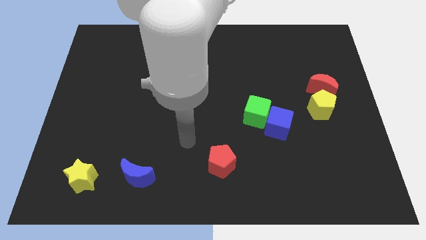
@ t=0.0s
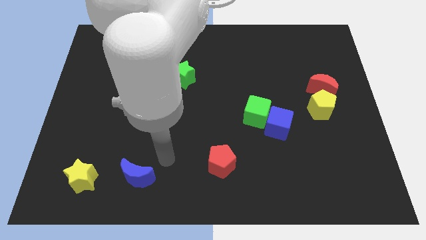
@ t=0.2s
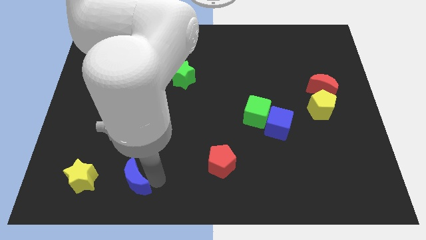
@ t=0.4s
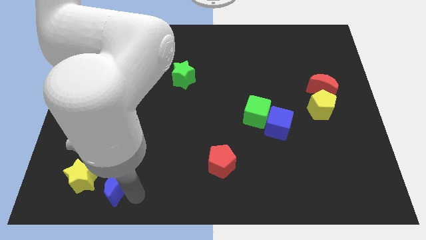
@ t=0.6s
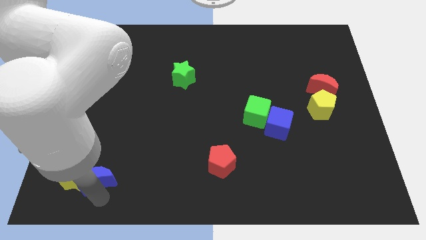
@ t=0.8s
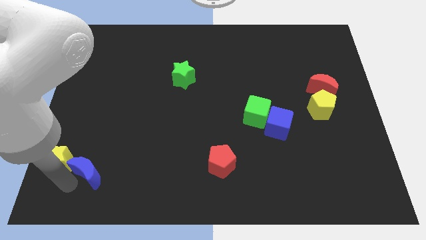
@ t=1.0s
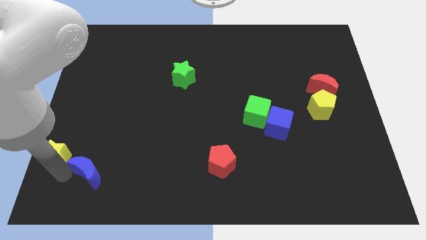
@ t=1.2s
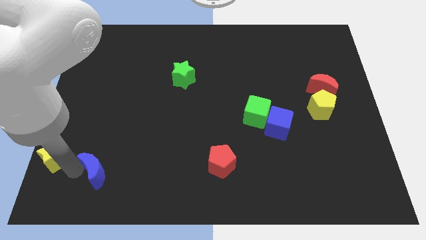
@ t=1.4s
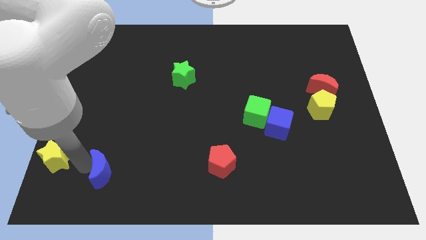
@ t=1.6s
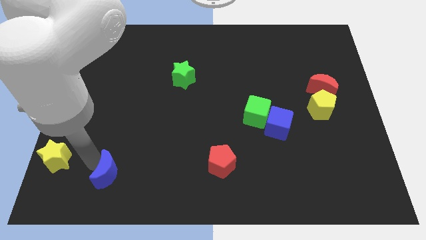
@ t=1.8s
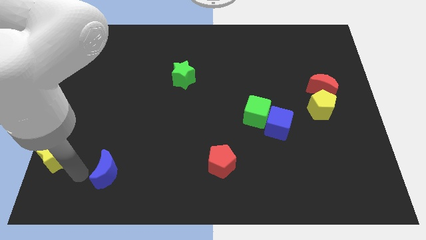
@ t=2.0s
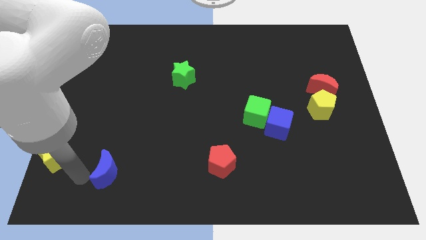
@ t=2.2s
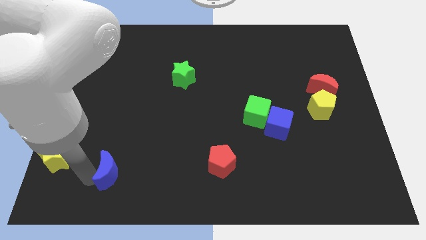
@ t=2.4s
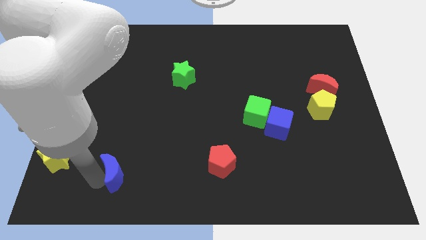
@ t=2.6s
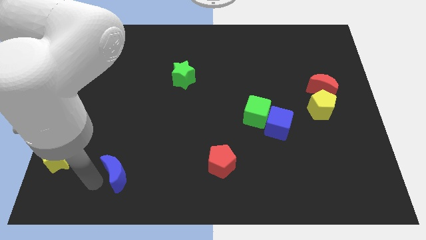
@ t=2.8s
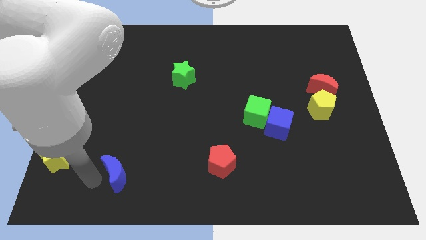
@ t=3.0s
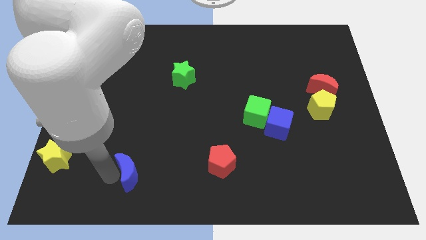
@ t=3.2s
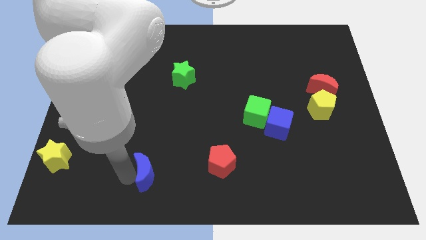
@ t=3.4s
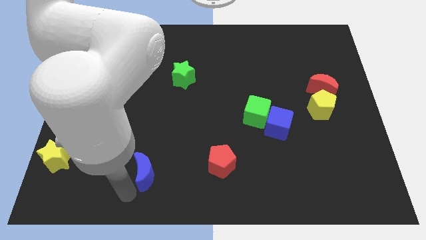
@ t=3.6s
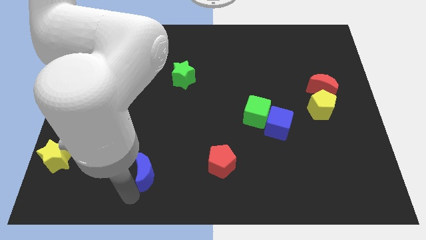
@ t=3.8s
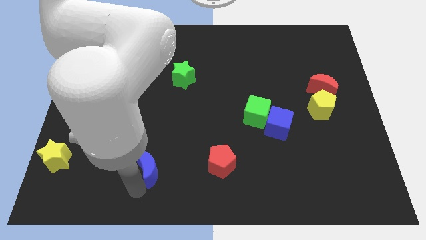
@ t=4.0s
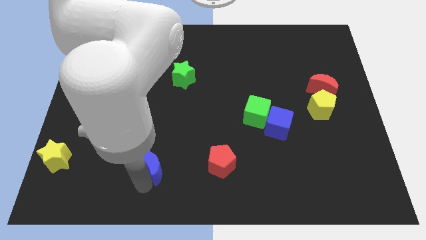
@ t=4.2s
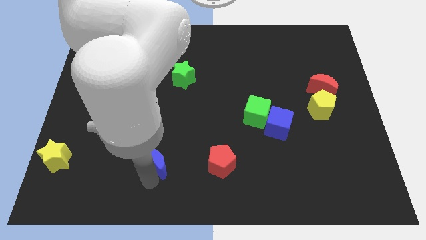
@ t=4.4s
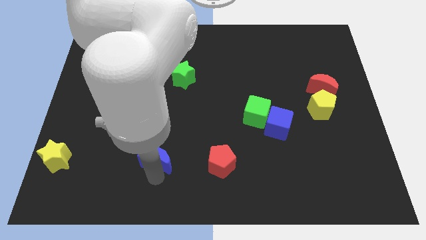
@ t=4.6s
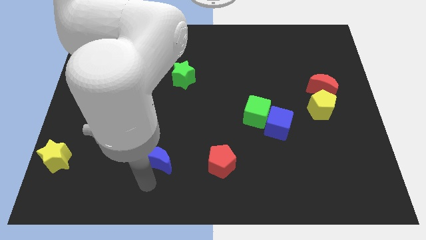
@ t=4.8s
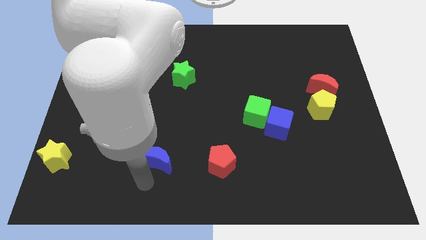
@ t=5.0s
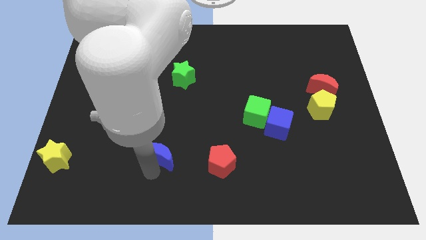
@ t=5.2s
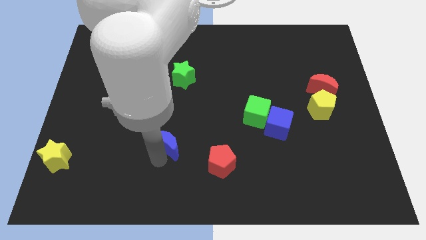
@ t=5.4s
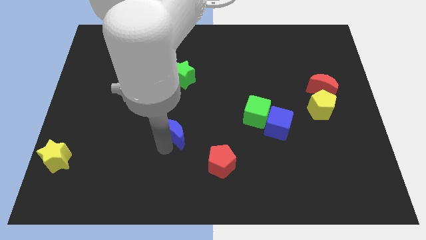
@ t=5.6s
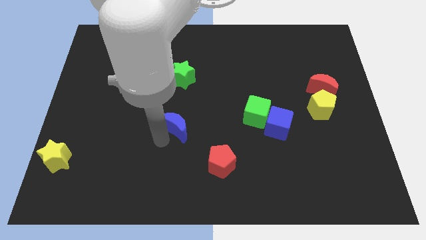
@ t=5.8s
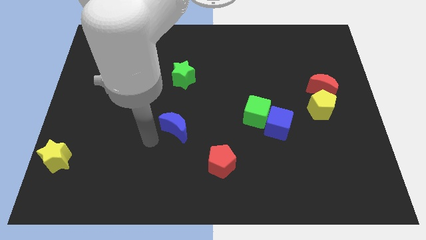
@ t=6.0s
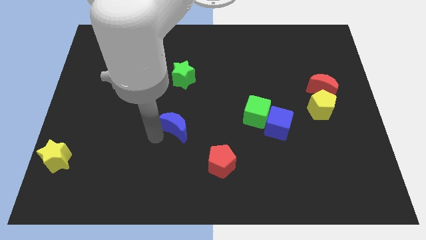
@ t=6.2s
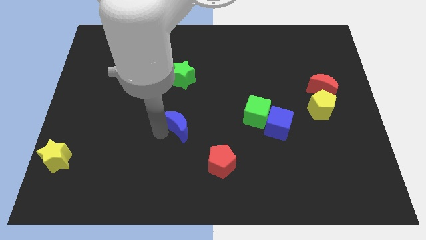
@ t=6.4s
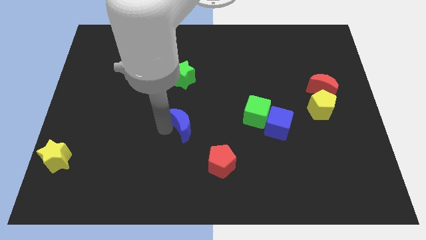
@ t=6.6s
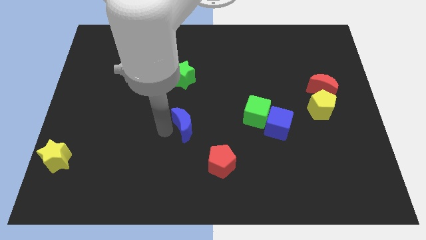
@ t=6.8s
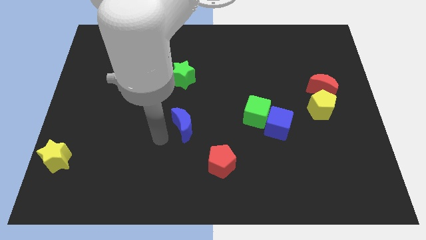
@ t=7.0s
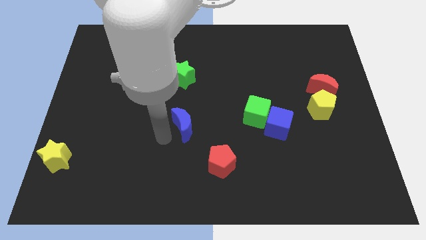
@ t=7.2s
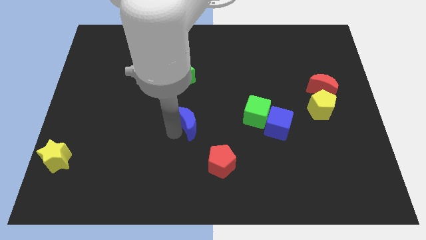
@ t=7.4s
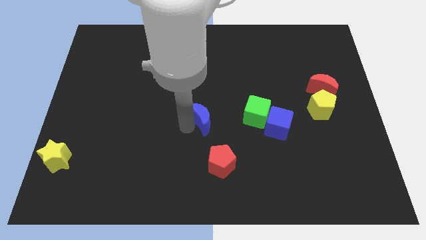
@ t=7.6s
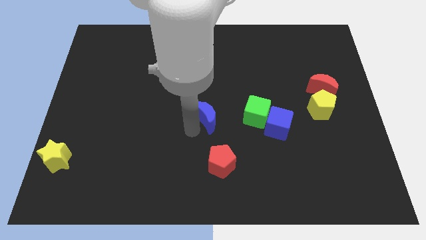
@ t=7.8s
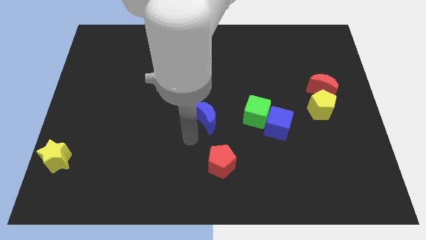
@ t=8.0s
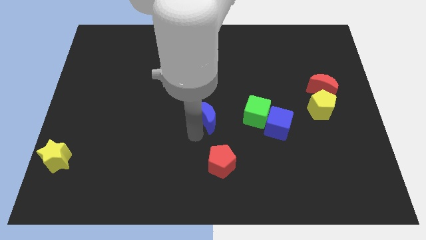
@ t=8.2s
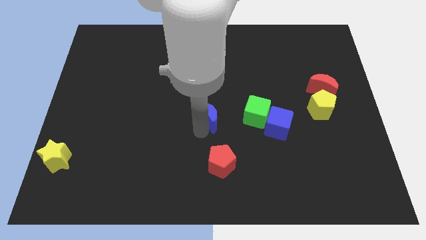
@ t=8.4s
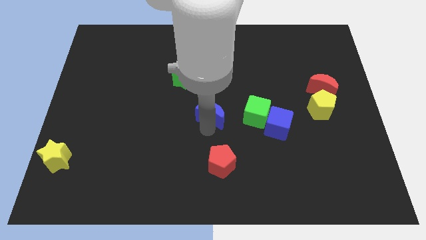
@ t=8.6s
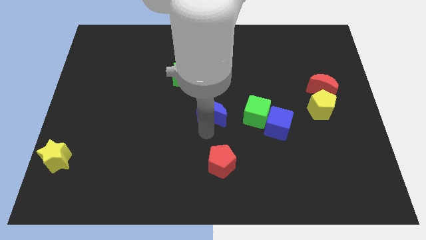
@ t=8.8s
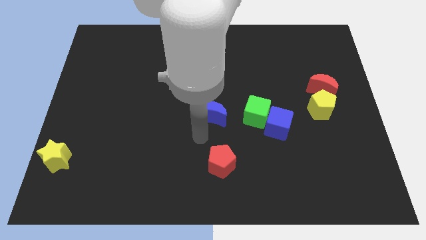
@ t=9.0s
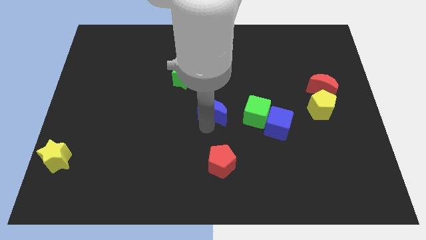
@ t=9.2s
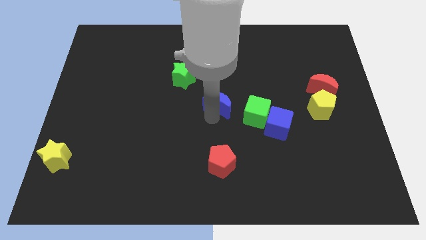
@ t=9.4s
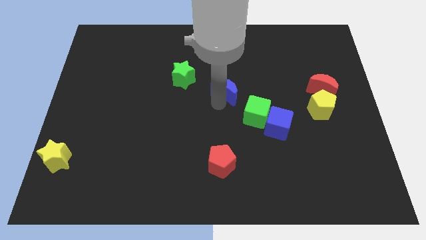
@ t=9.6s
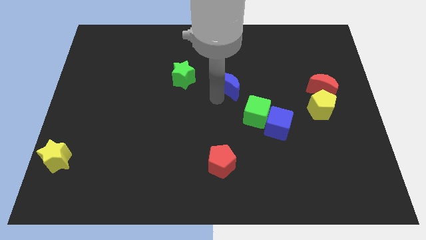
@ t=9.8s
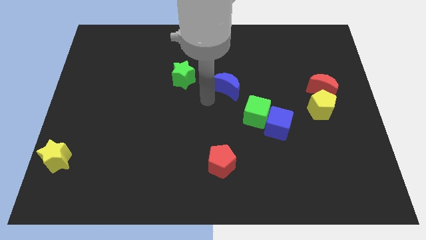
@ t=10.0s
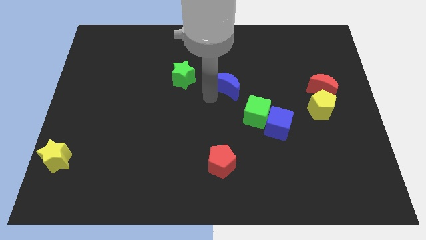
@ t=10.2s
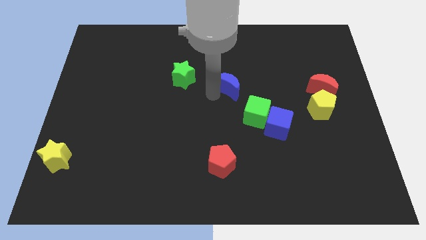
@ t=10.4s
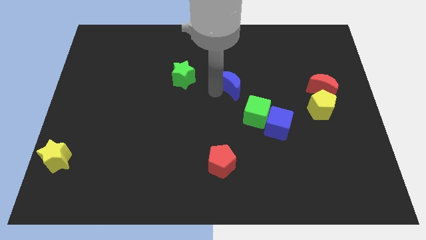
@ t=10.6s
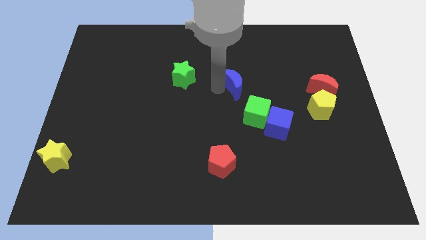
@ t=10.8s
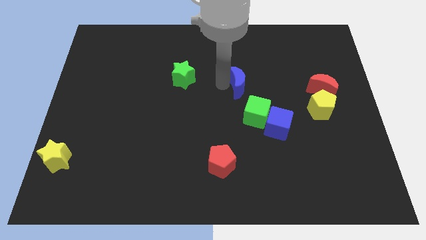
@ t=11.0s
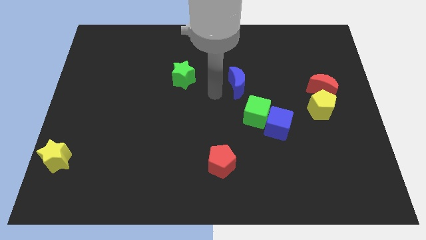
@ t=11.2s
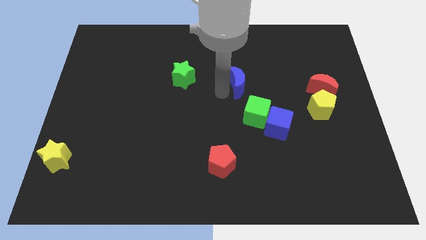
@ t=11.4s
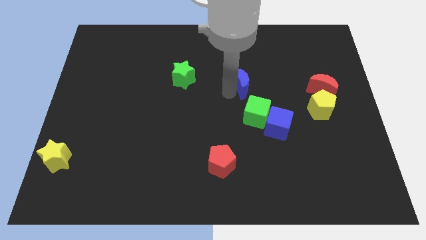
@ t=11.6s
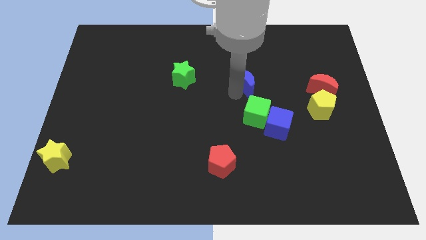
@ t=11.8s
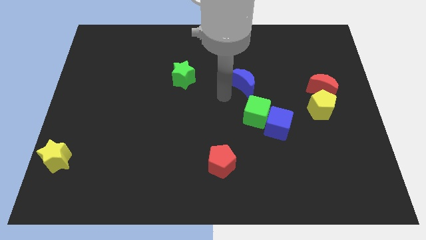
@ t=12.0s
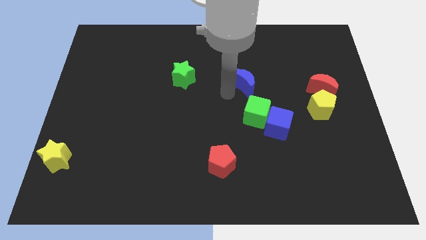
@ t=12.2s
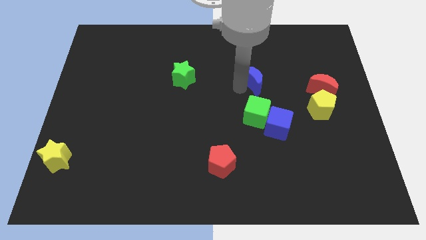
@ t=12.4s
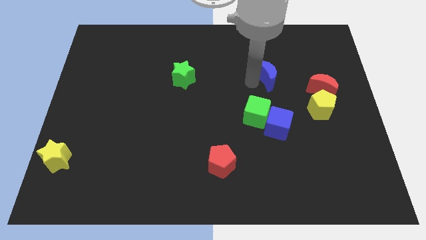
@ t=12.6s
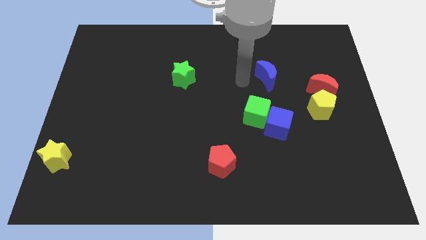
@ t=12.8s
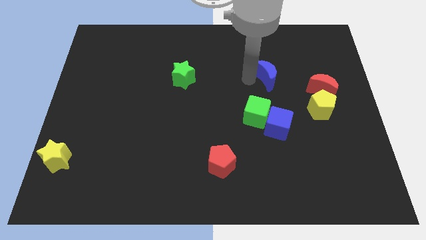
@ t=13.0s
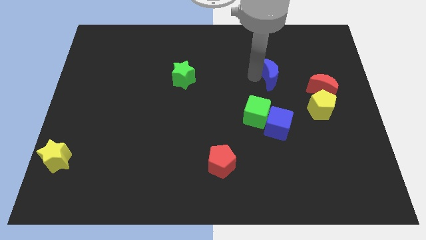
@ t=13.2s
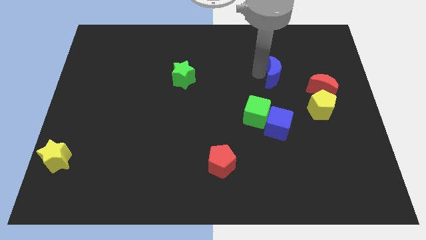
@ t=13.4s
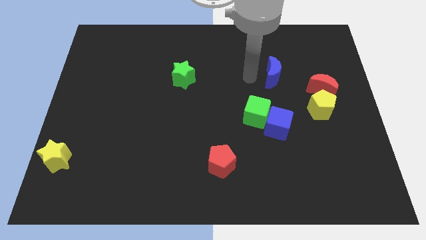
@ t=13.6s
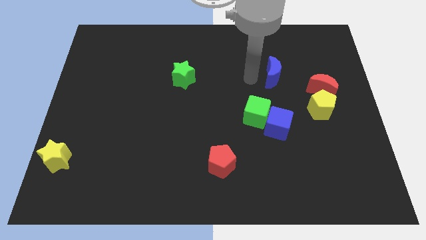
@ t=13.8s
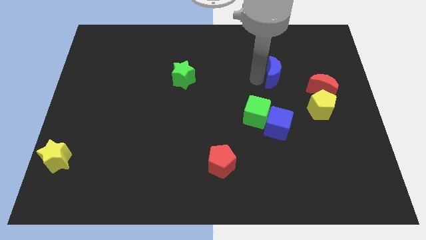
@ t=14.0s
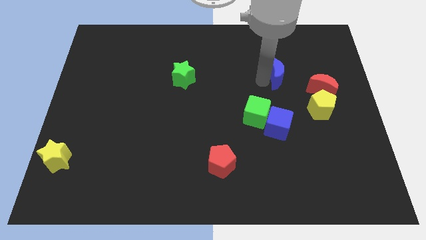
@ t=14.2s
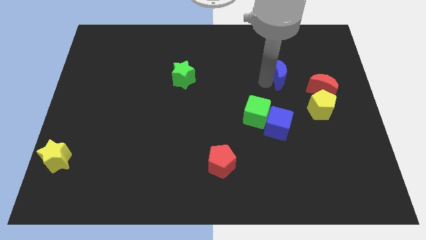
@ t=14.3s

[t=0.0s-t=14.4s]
move the blue moon diagonally up and to the left of the red moon
